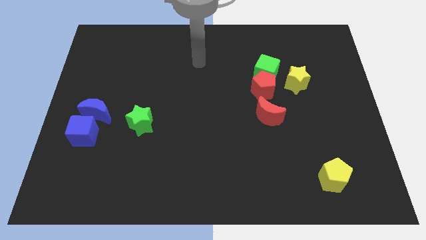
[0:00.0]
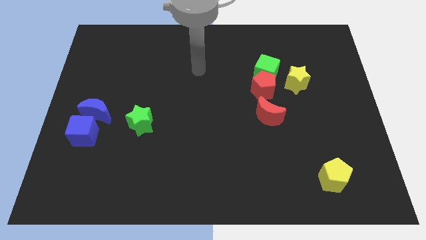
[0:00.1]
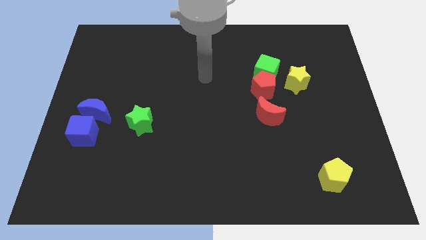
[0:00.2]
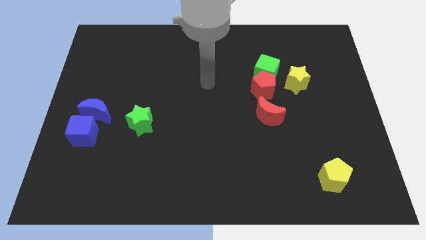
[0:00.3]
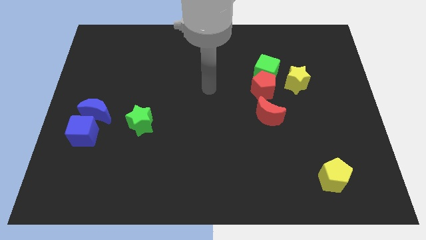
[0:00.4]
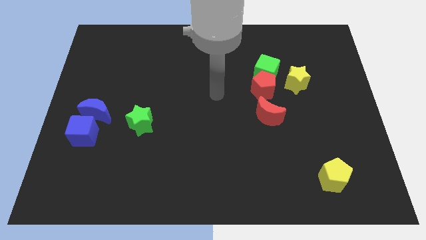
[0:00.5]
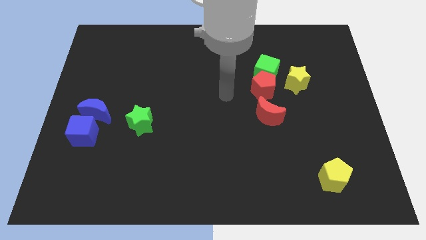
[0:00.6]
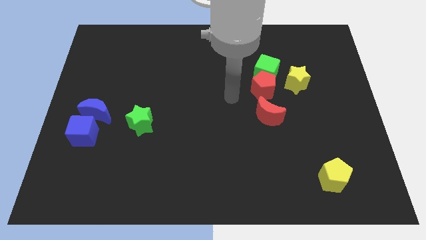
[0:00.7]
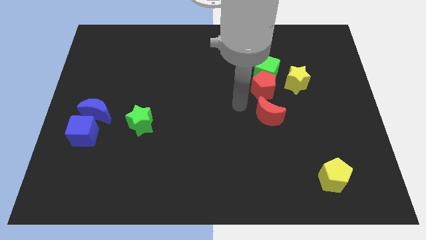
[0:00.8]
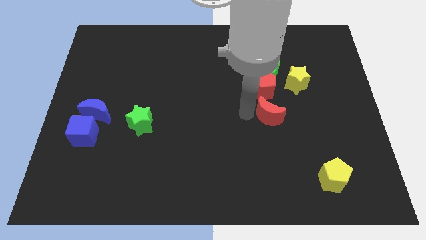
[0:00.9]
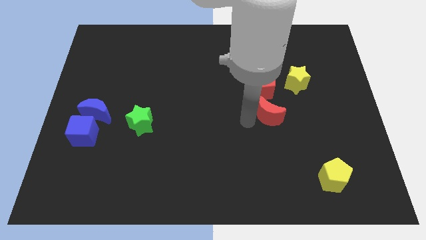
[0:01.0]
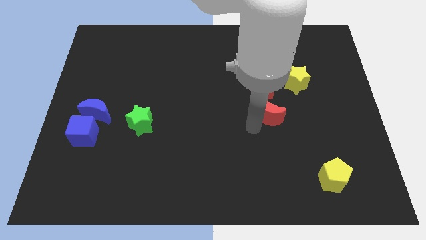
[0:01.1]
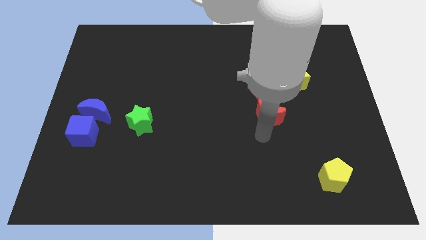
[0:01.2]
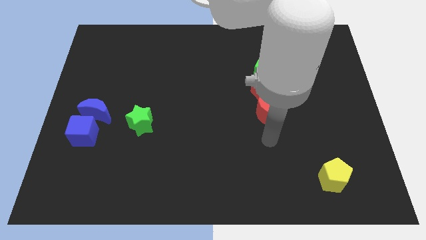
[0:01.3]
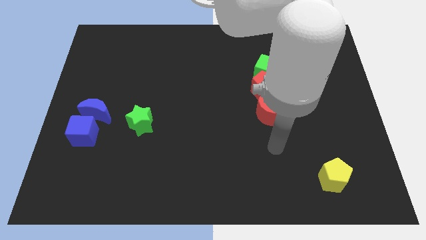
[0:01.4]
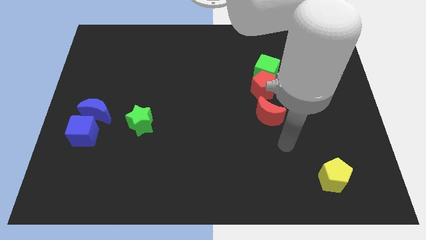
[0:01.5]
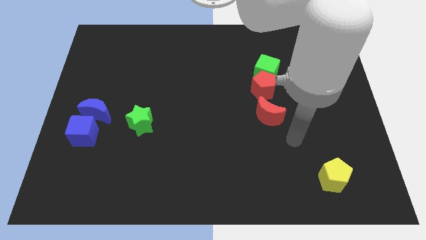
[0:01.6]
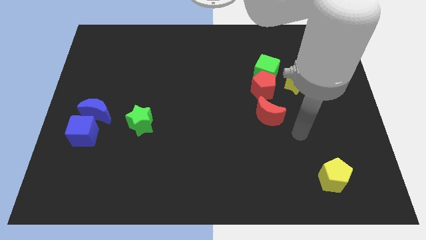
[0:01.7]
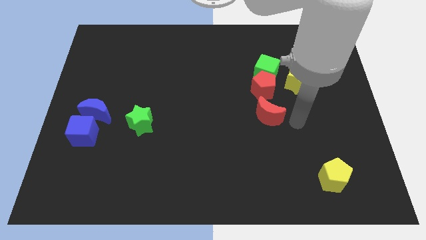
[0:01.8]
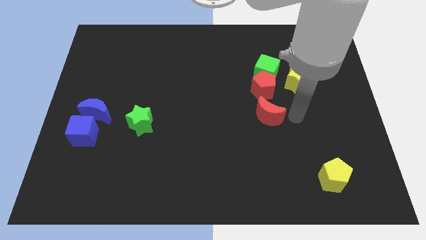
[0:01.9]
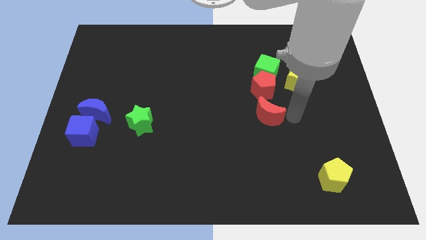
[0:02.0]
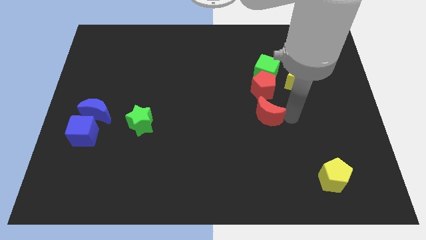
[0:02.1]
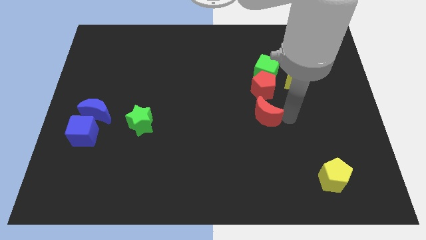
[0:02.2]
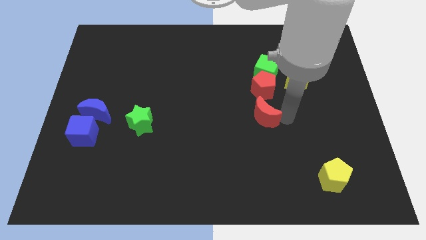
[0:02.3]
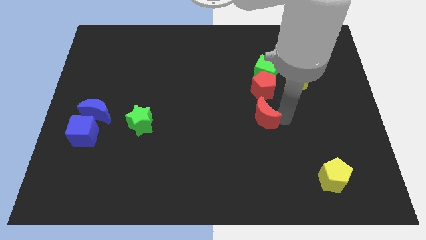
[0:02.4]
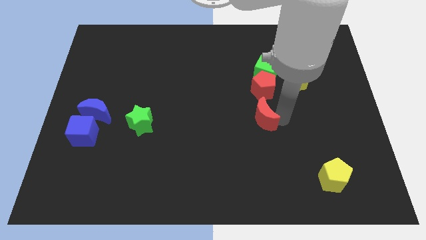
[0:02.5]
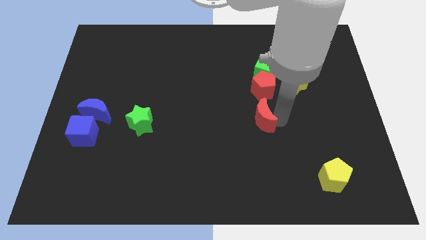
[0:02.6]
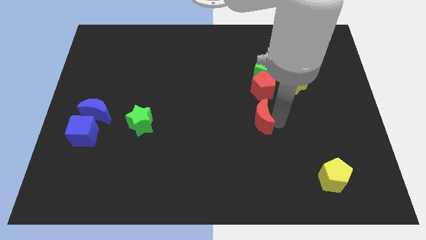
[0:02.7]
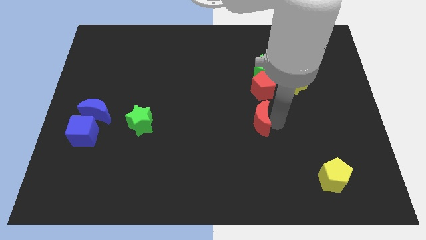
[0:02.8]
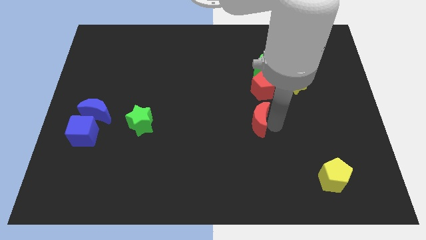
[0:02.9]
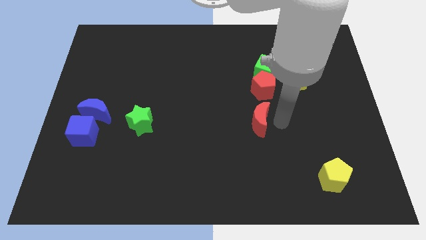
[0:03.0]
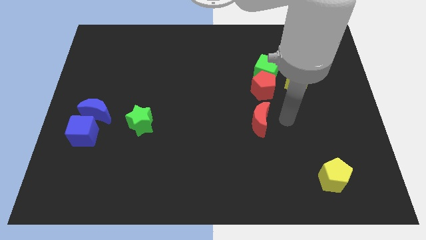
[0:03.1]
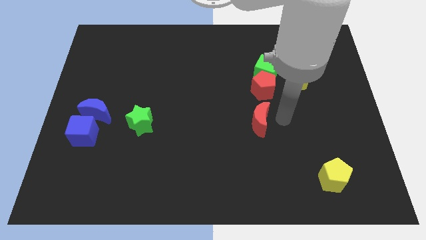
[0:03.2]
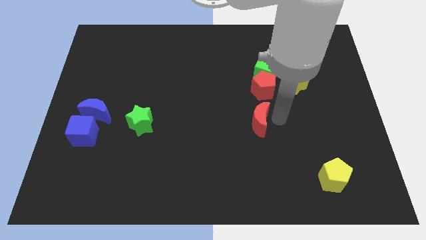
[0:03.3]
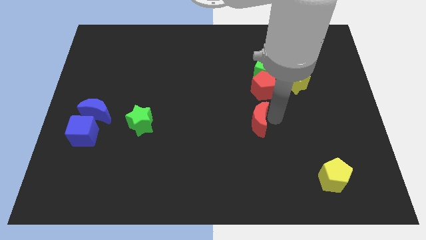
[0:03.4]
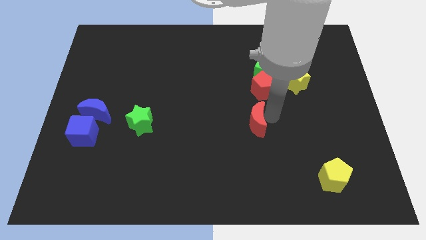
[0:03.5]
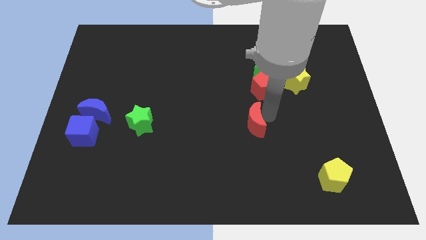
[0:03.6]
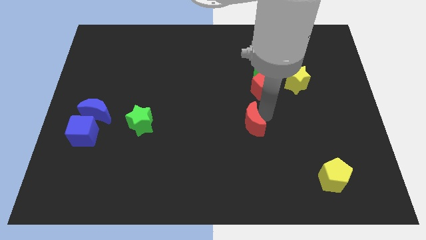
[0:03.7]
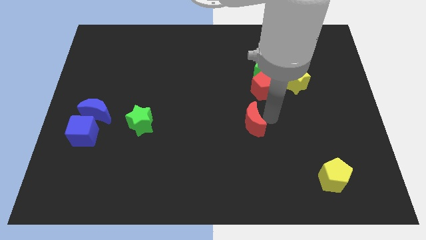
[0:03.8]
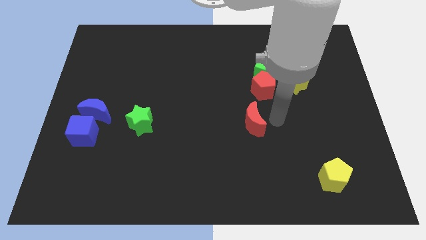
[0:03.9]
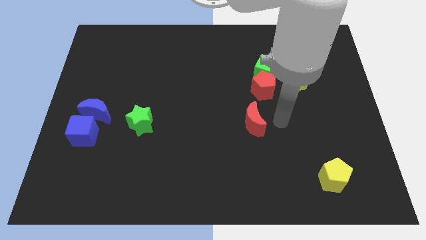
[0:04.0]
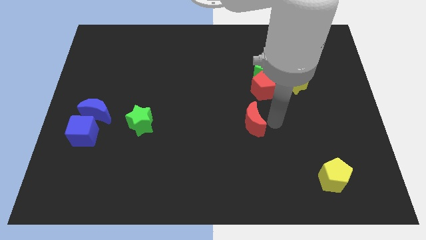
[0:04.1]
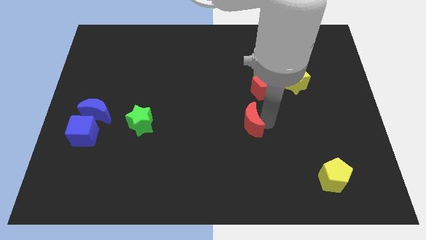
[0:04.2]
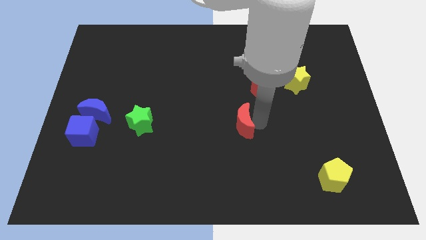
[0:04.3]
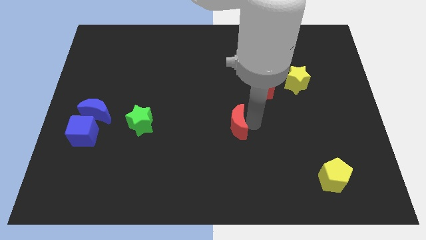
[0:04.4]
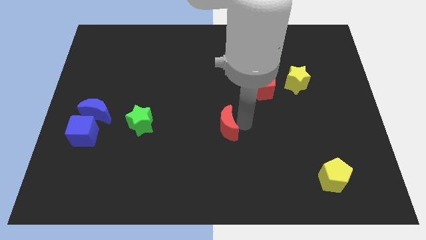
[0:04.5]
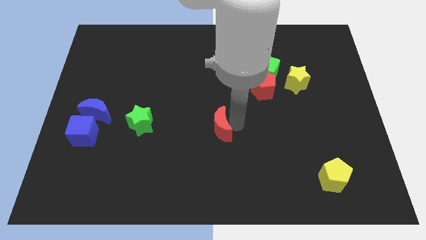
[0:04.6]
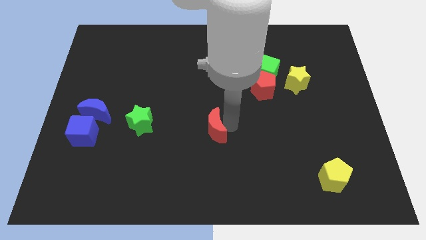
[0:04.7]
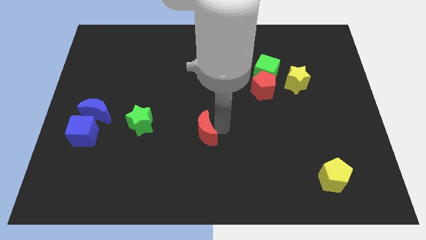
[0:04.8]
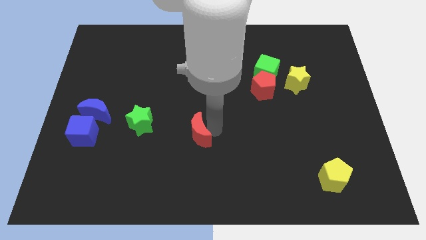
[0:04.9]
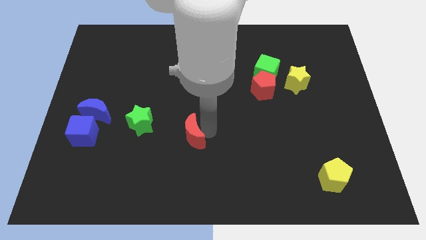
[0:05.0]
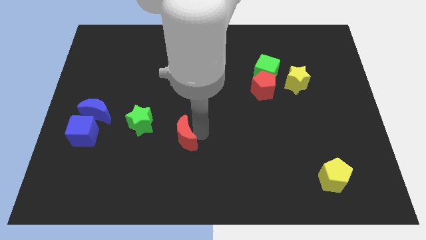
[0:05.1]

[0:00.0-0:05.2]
put the red moon to the bottom right side of the green star

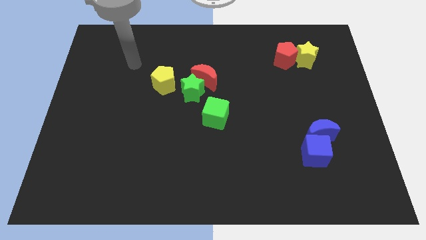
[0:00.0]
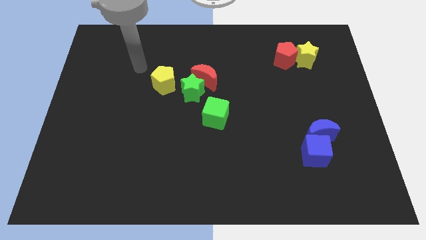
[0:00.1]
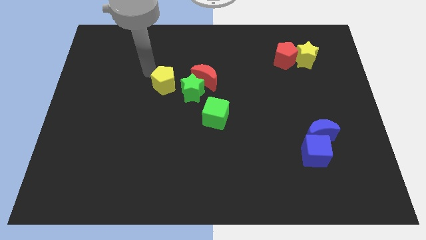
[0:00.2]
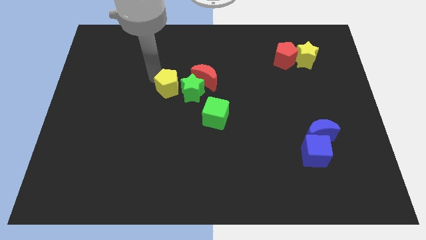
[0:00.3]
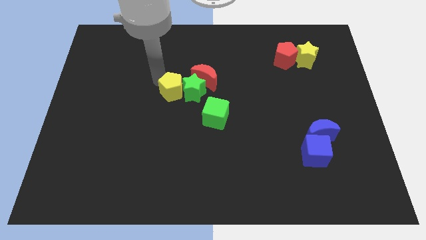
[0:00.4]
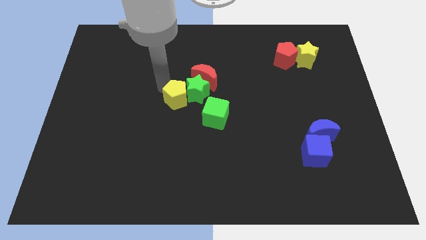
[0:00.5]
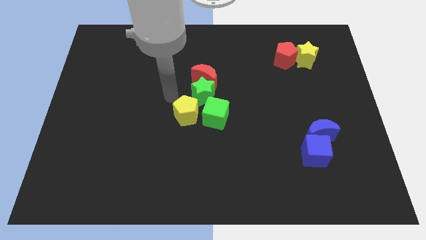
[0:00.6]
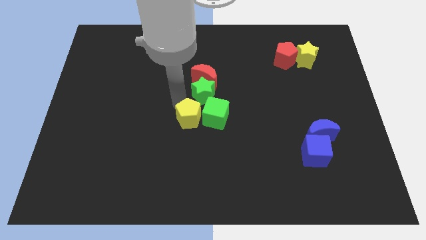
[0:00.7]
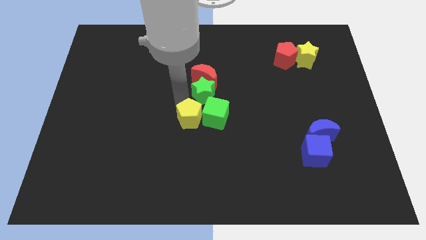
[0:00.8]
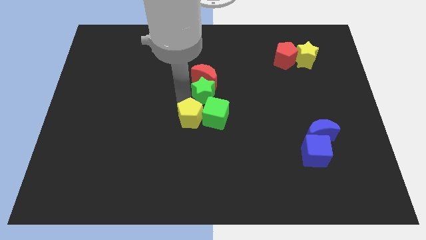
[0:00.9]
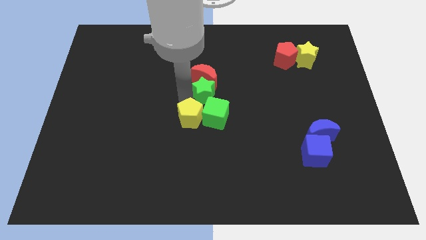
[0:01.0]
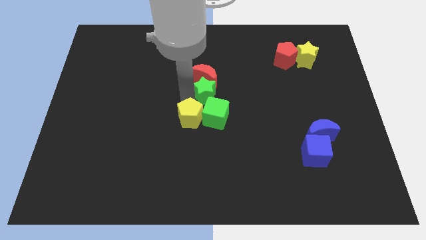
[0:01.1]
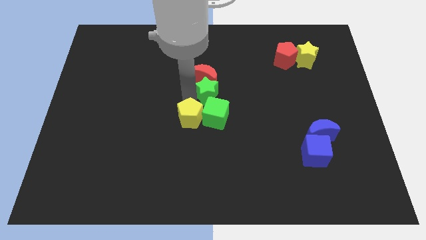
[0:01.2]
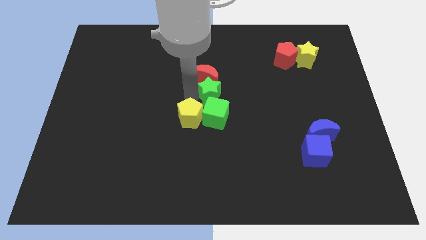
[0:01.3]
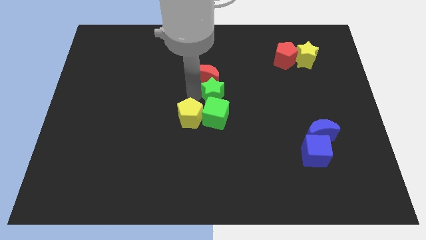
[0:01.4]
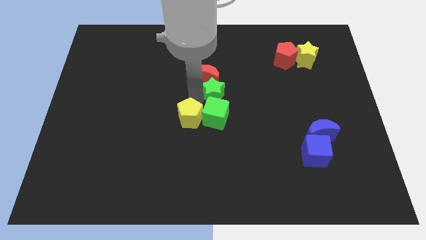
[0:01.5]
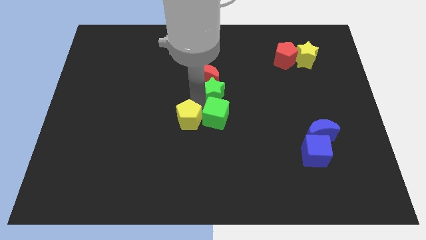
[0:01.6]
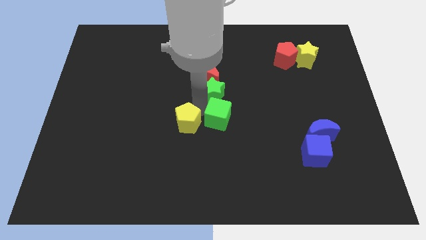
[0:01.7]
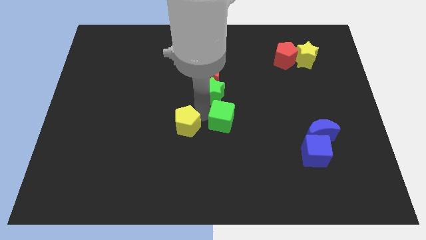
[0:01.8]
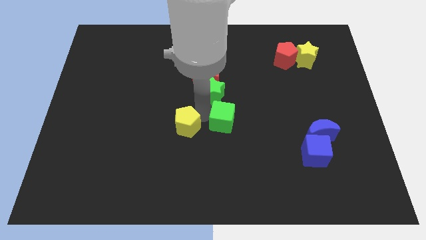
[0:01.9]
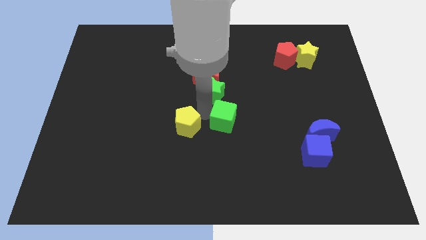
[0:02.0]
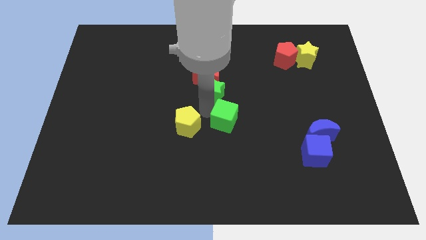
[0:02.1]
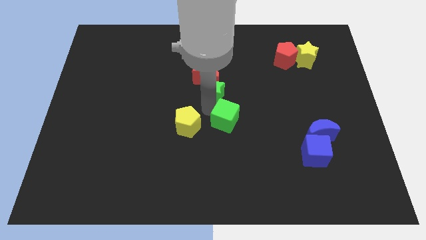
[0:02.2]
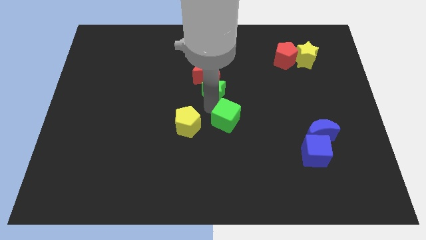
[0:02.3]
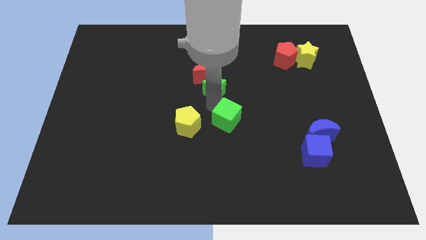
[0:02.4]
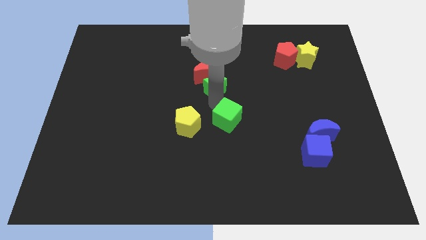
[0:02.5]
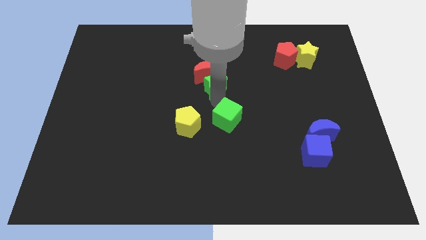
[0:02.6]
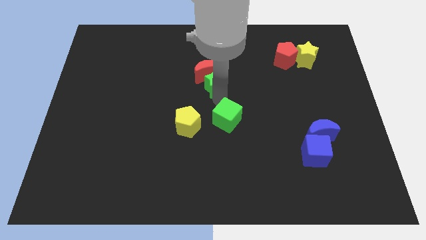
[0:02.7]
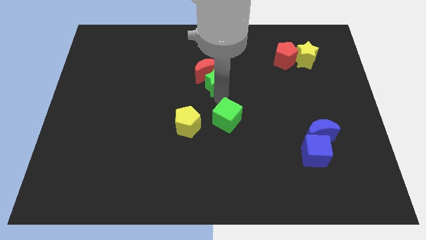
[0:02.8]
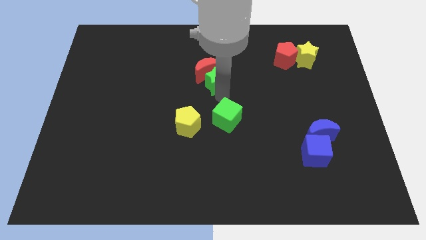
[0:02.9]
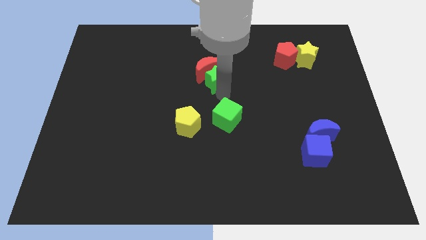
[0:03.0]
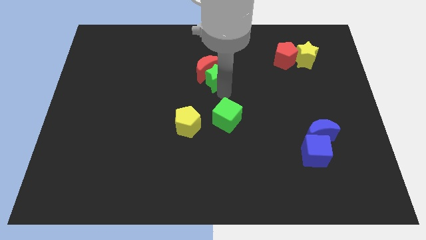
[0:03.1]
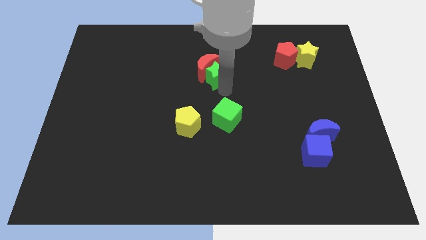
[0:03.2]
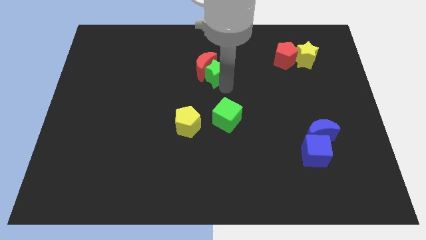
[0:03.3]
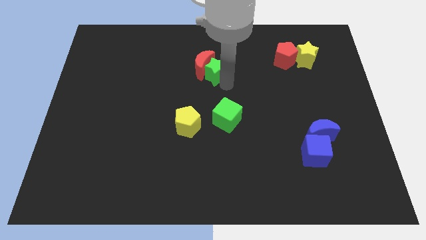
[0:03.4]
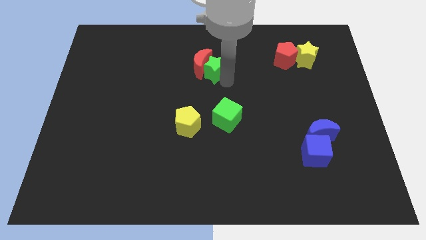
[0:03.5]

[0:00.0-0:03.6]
move the green star diagonally up and to the right of the red moon
